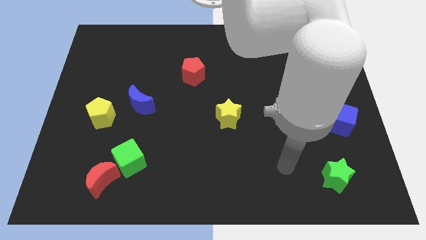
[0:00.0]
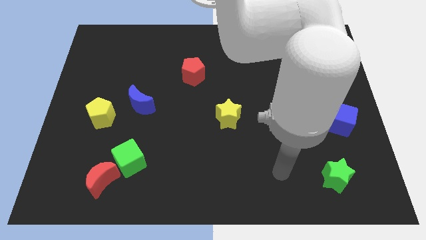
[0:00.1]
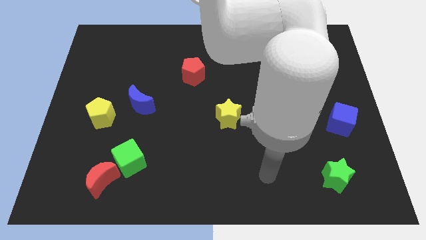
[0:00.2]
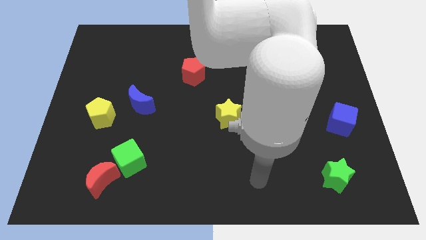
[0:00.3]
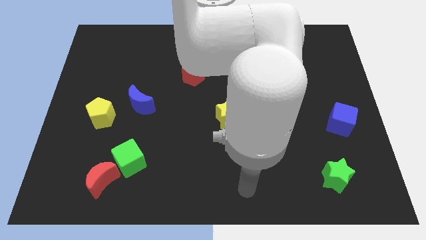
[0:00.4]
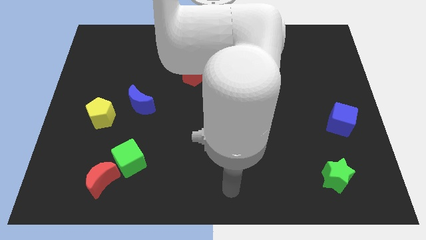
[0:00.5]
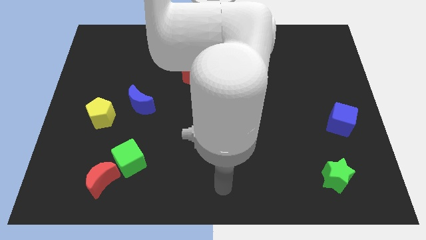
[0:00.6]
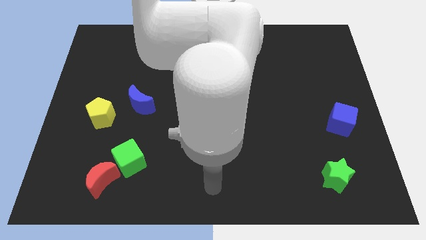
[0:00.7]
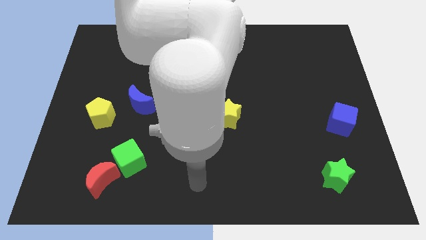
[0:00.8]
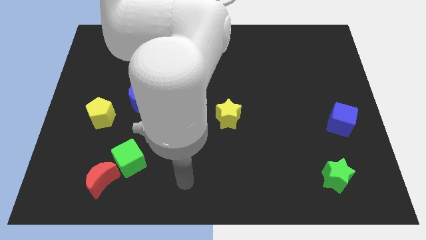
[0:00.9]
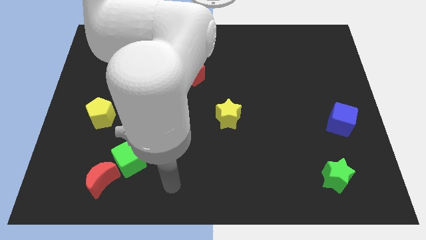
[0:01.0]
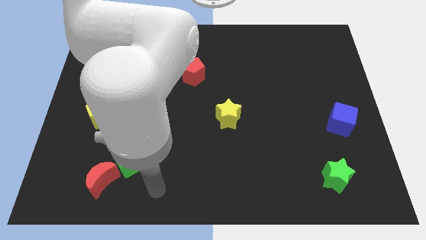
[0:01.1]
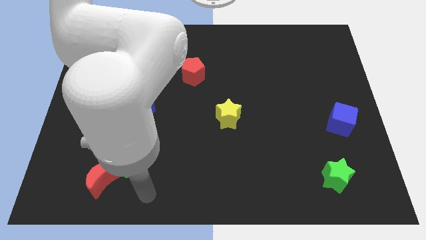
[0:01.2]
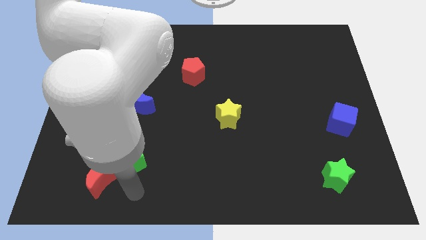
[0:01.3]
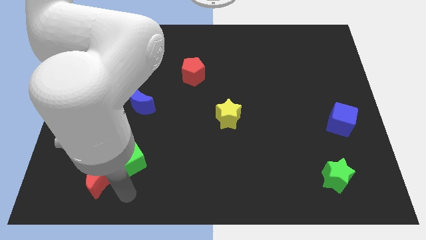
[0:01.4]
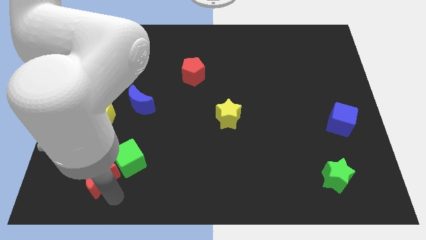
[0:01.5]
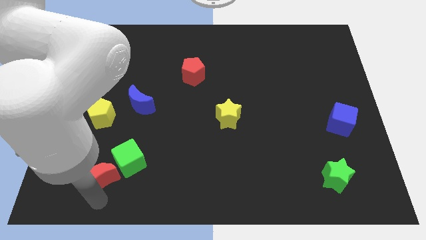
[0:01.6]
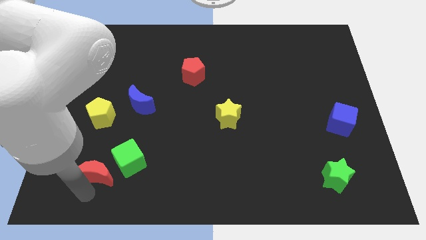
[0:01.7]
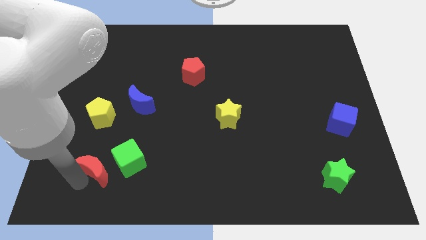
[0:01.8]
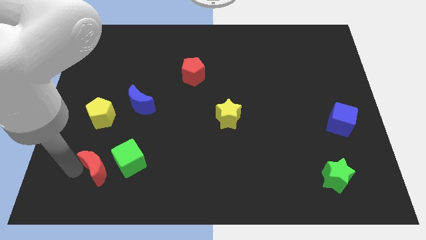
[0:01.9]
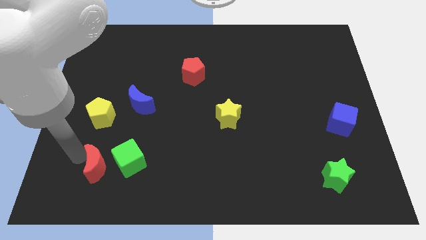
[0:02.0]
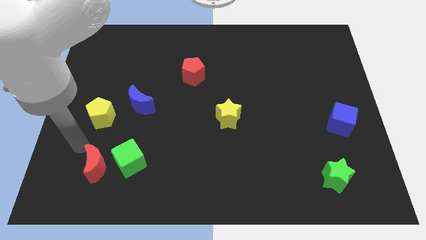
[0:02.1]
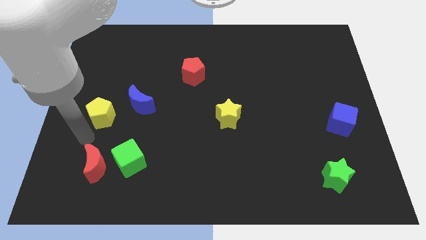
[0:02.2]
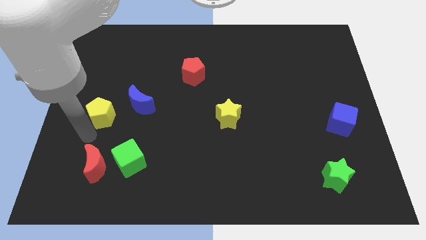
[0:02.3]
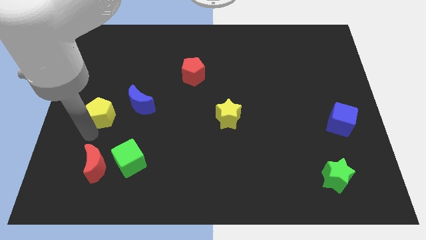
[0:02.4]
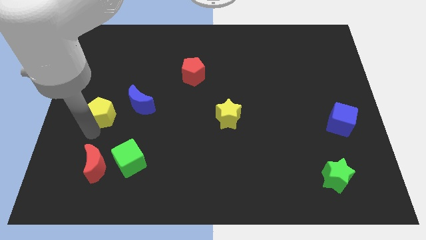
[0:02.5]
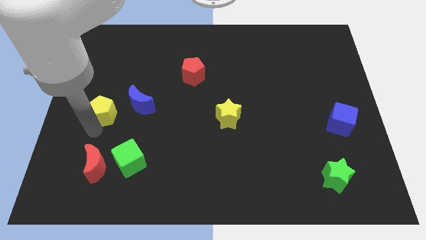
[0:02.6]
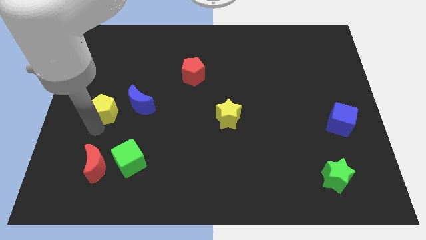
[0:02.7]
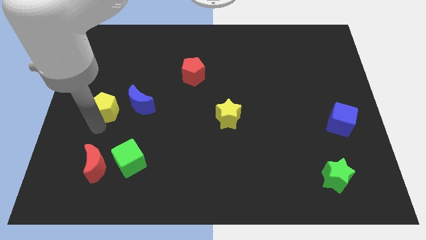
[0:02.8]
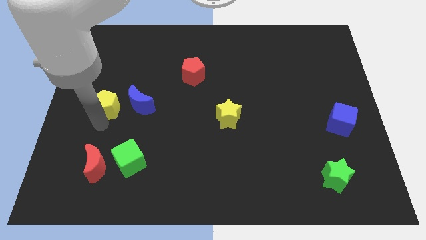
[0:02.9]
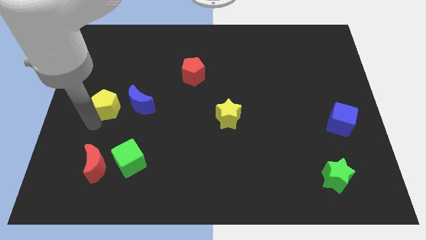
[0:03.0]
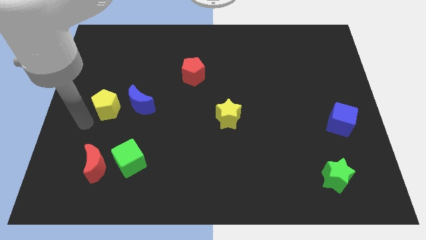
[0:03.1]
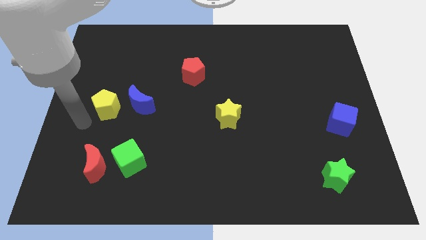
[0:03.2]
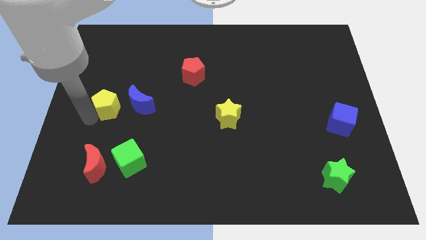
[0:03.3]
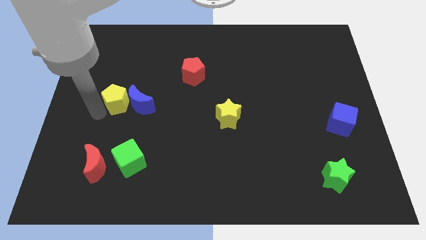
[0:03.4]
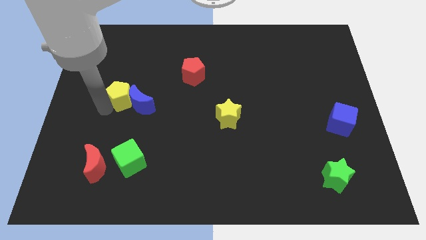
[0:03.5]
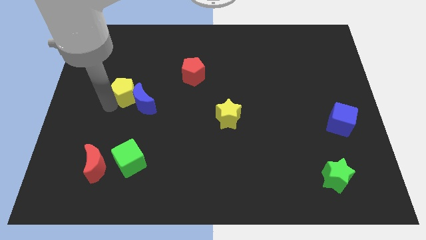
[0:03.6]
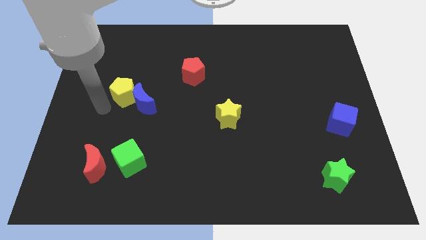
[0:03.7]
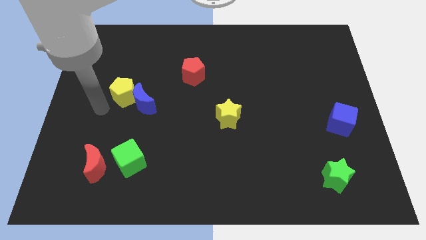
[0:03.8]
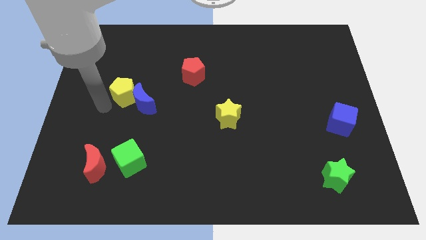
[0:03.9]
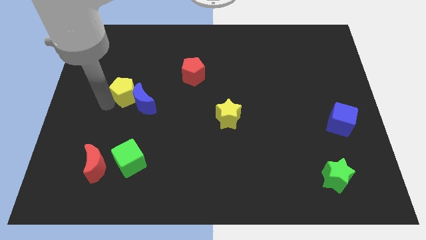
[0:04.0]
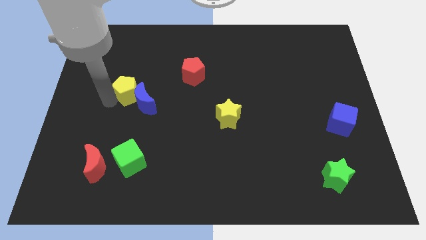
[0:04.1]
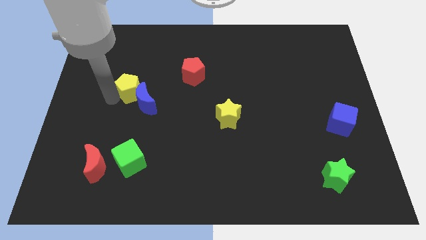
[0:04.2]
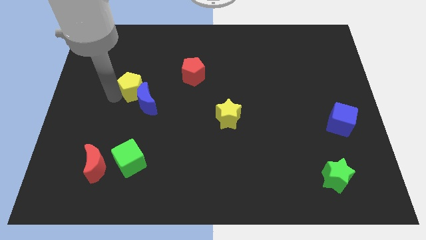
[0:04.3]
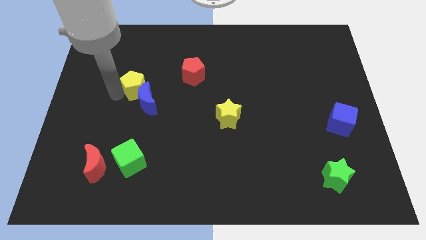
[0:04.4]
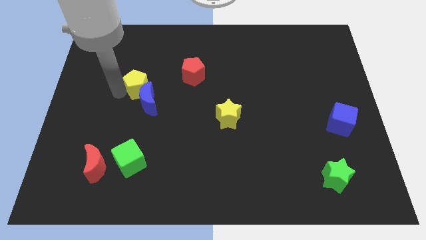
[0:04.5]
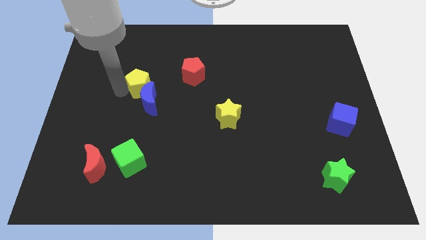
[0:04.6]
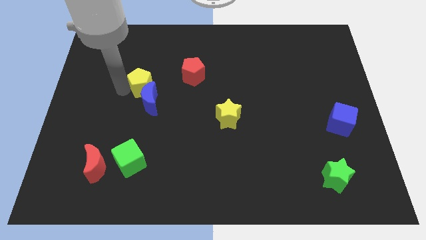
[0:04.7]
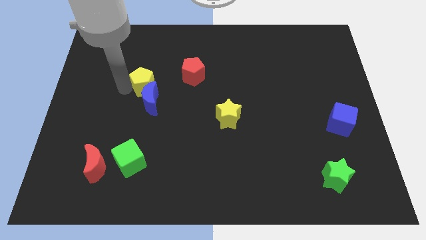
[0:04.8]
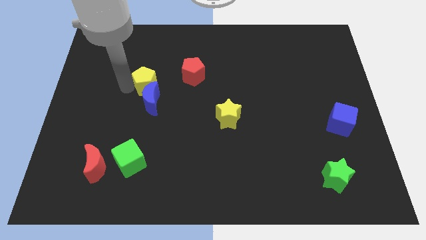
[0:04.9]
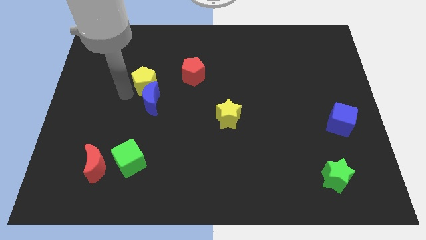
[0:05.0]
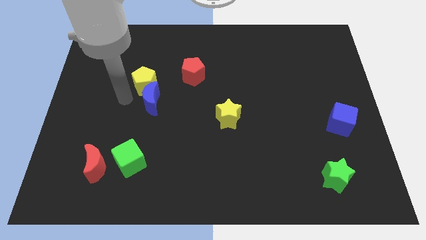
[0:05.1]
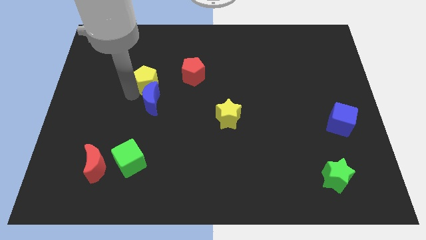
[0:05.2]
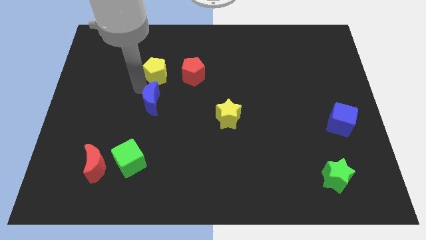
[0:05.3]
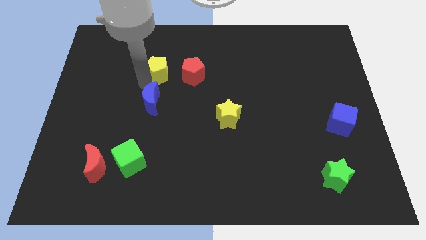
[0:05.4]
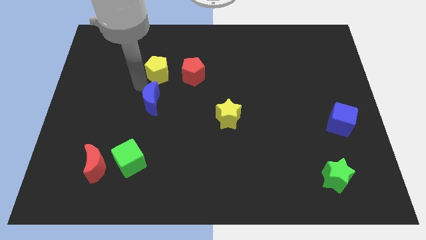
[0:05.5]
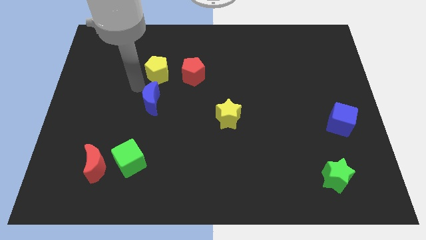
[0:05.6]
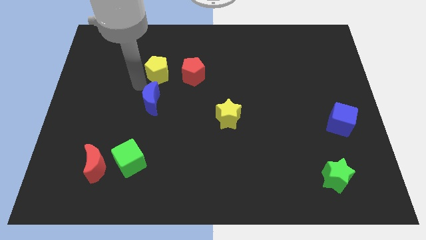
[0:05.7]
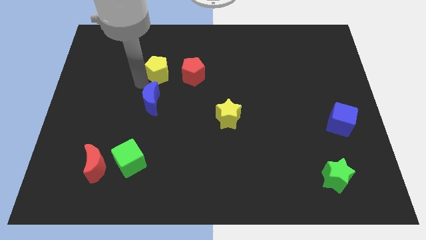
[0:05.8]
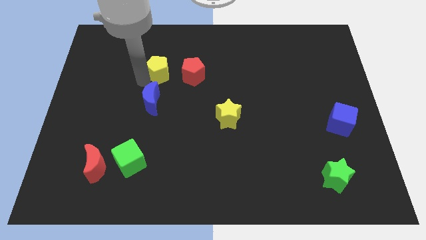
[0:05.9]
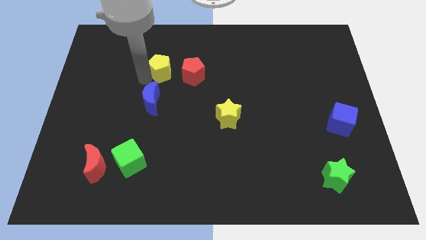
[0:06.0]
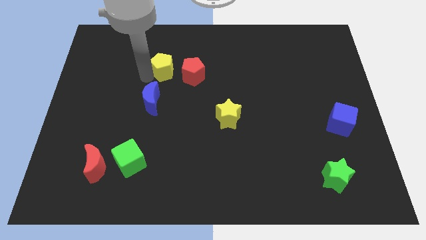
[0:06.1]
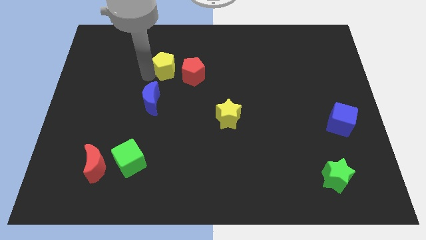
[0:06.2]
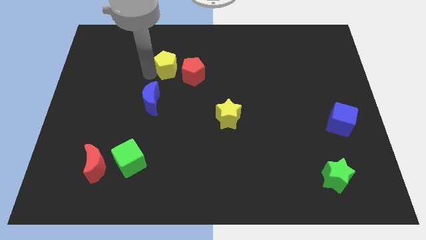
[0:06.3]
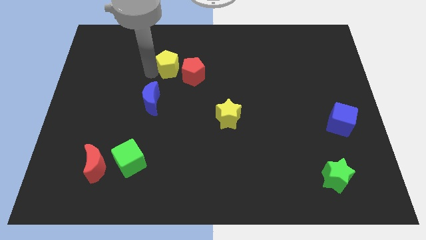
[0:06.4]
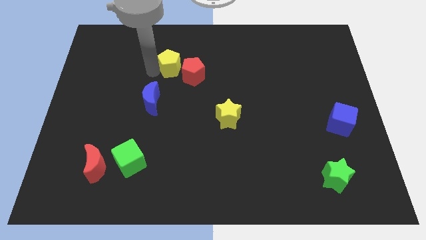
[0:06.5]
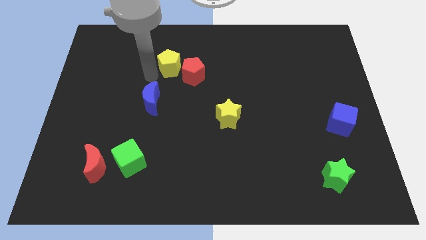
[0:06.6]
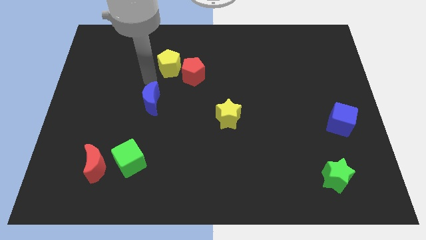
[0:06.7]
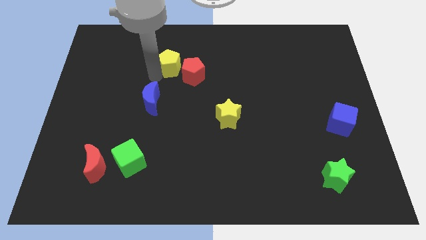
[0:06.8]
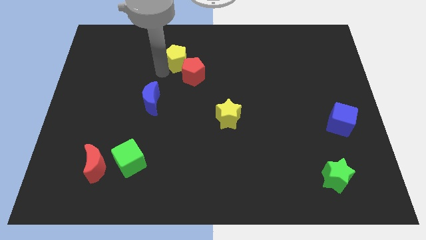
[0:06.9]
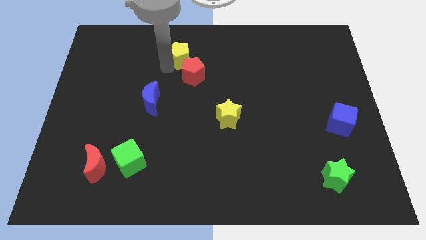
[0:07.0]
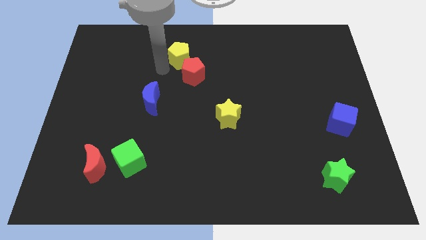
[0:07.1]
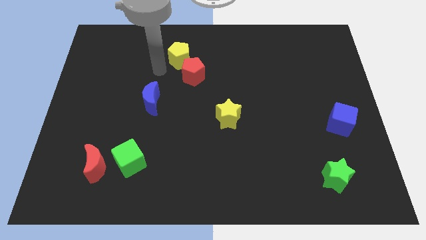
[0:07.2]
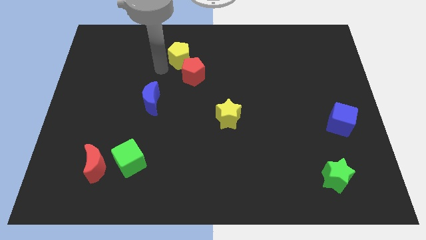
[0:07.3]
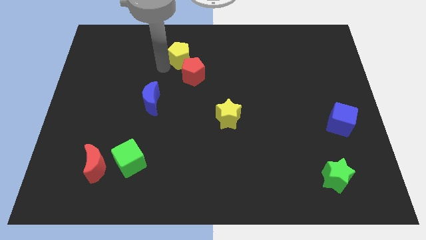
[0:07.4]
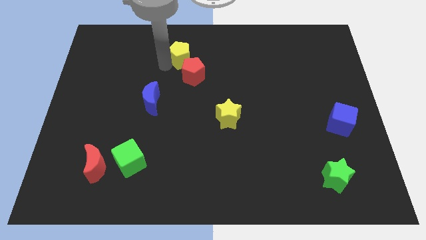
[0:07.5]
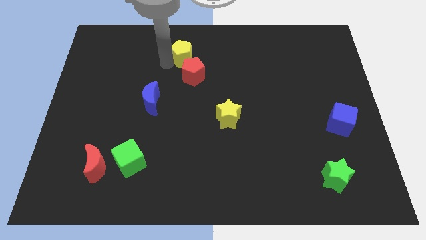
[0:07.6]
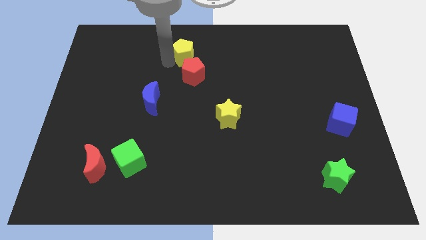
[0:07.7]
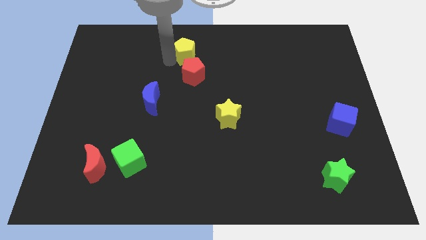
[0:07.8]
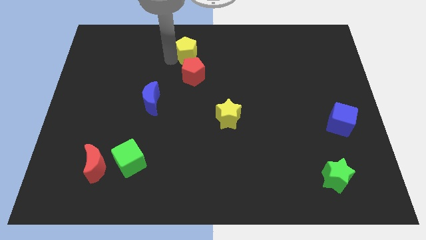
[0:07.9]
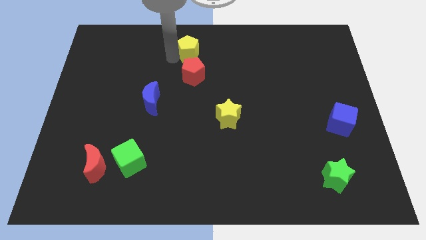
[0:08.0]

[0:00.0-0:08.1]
move the yellow pentagon to the top side
